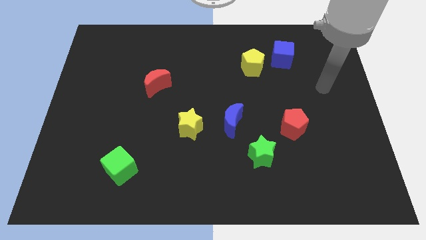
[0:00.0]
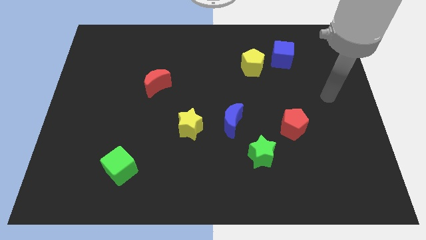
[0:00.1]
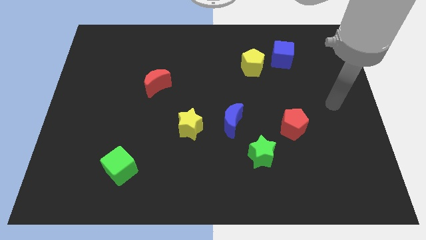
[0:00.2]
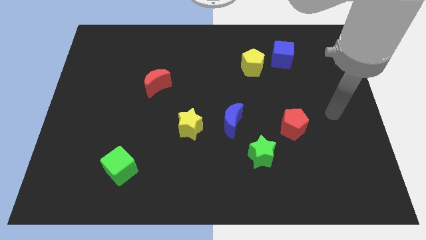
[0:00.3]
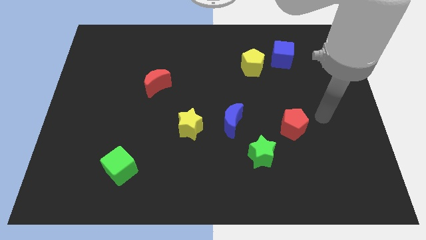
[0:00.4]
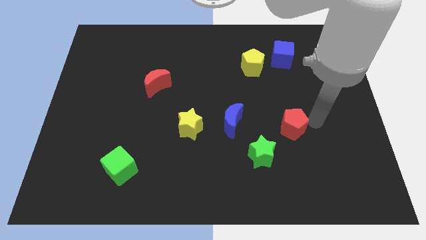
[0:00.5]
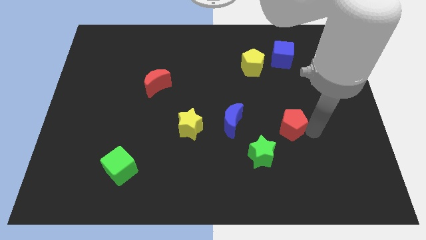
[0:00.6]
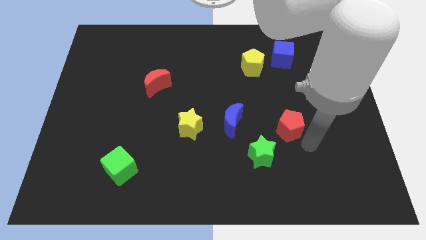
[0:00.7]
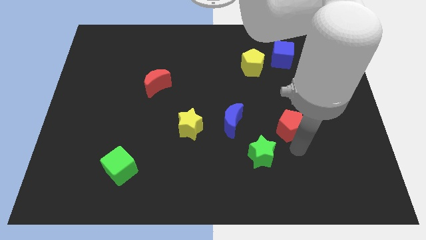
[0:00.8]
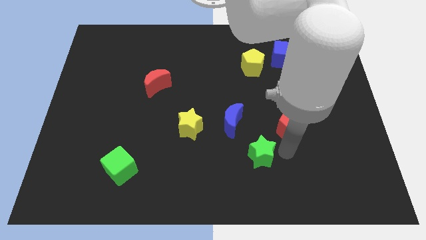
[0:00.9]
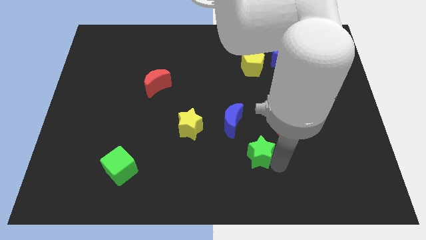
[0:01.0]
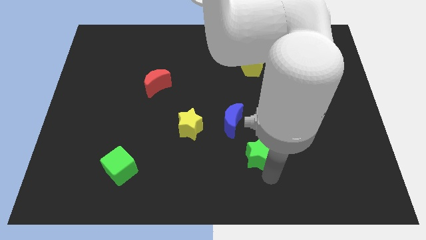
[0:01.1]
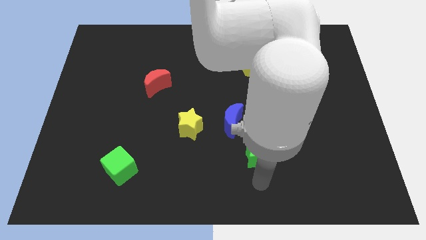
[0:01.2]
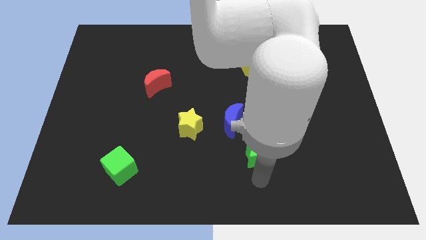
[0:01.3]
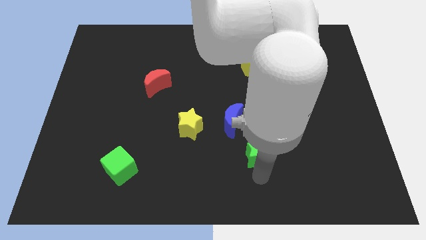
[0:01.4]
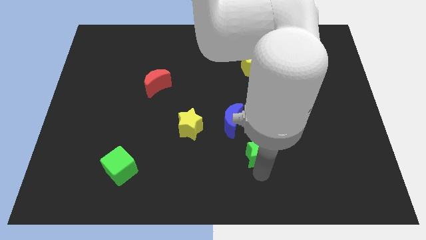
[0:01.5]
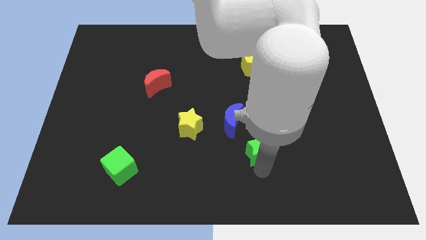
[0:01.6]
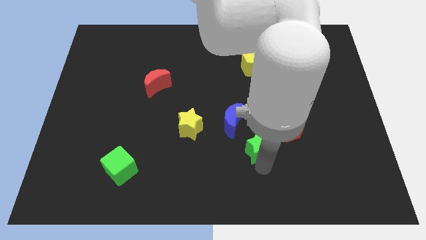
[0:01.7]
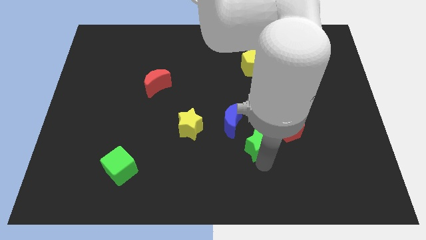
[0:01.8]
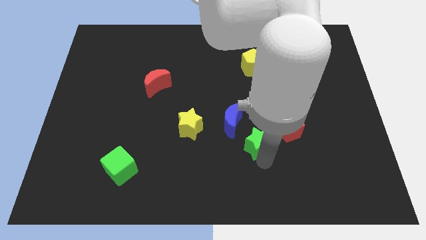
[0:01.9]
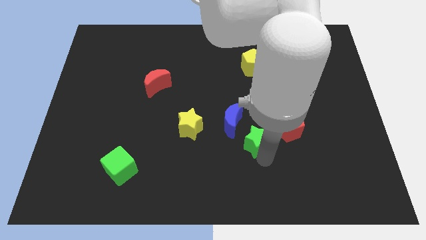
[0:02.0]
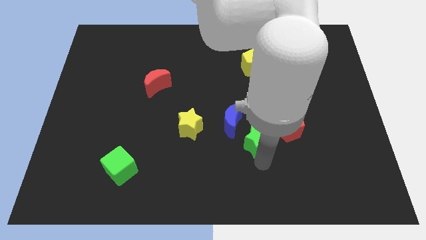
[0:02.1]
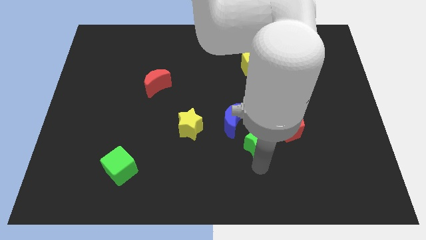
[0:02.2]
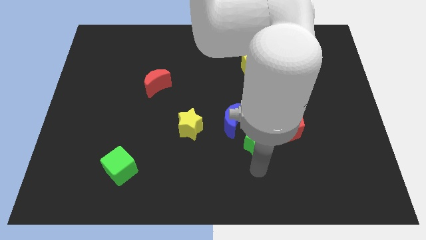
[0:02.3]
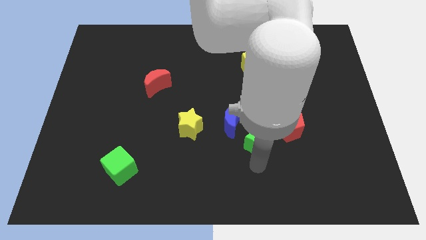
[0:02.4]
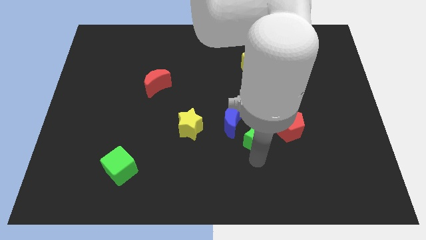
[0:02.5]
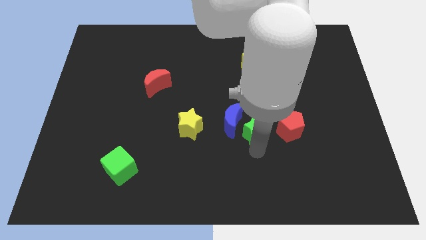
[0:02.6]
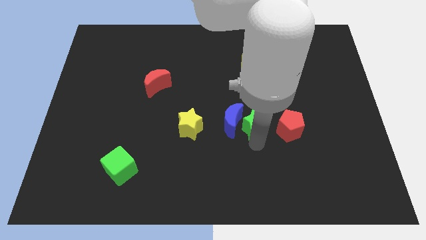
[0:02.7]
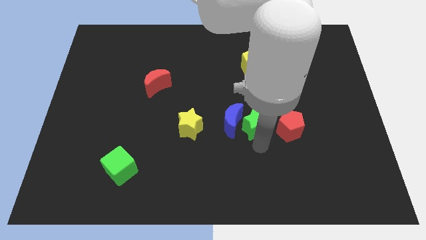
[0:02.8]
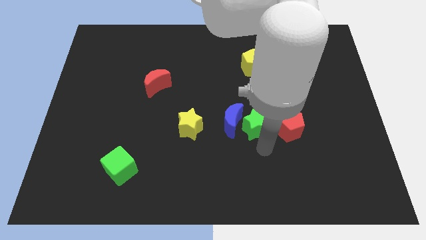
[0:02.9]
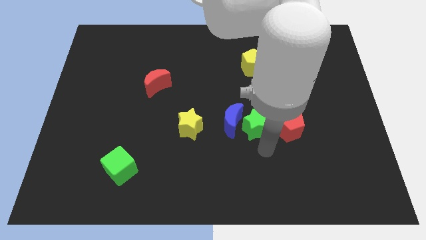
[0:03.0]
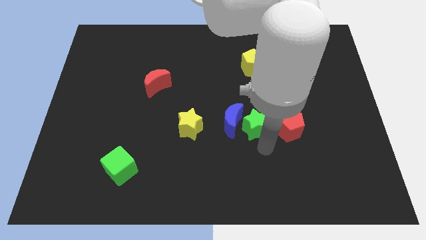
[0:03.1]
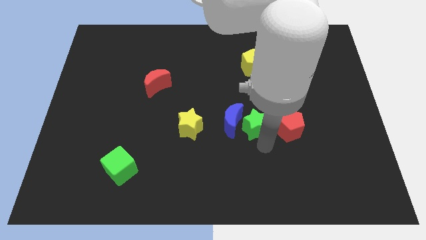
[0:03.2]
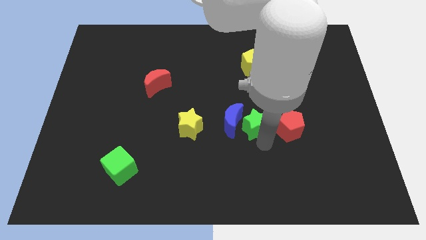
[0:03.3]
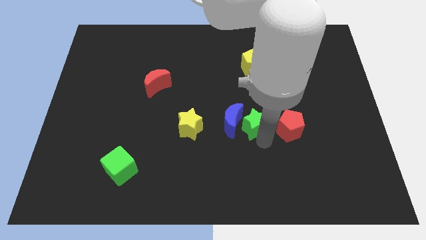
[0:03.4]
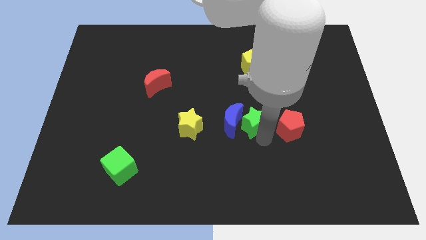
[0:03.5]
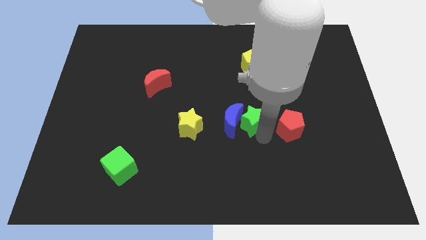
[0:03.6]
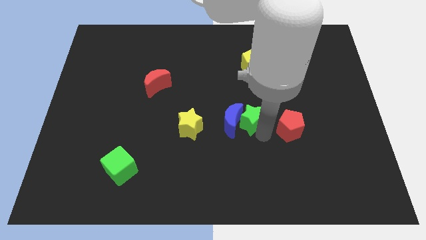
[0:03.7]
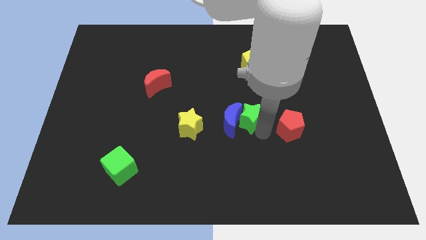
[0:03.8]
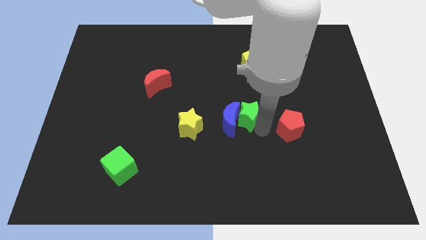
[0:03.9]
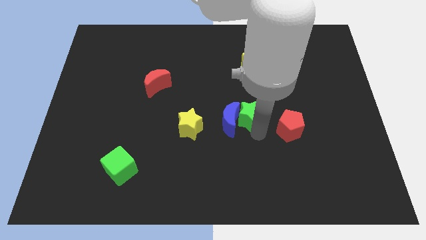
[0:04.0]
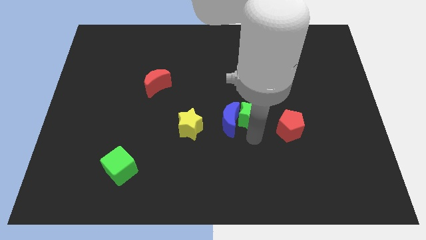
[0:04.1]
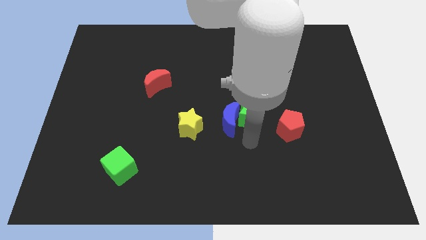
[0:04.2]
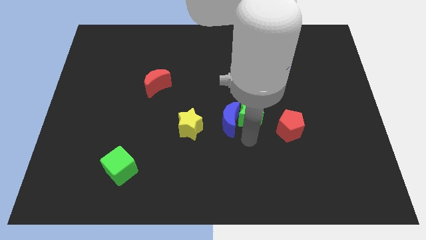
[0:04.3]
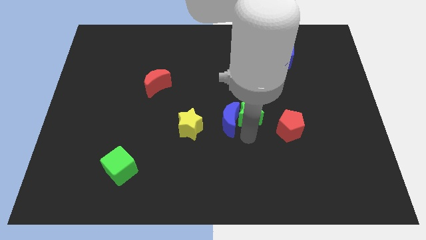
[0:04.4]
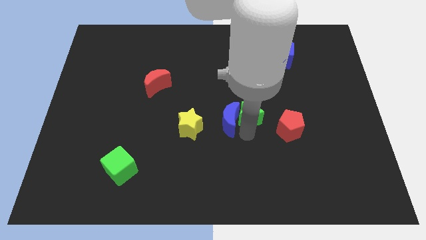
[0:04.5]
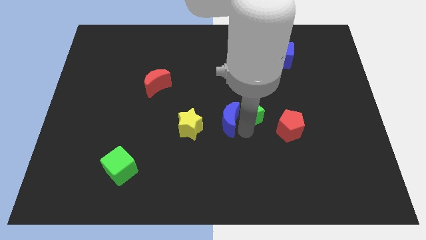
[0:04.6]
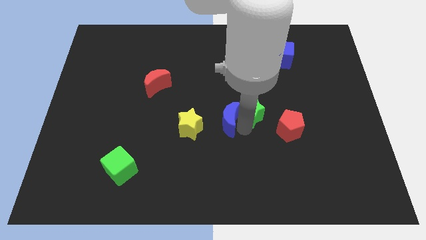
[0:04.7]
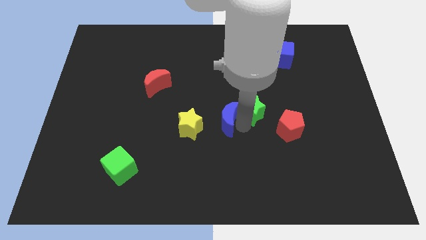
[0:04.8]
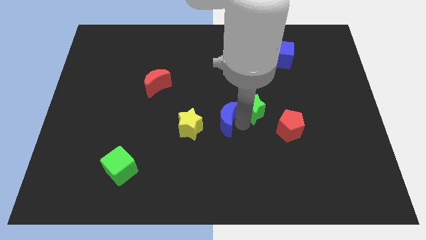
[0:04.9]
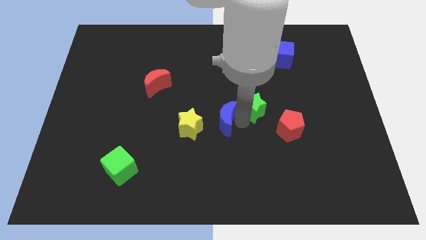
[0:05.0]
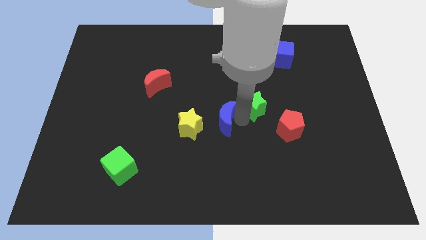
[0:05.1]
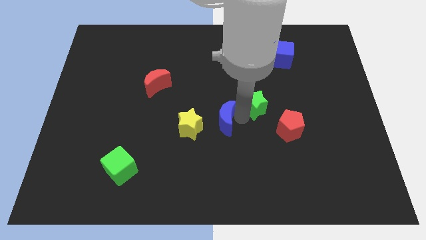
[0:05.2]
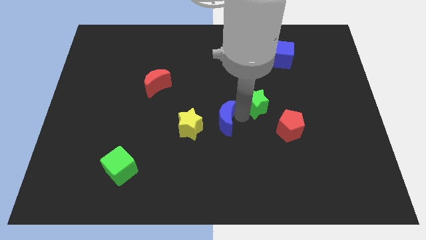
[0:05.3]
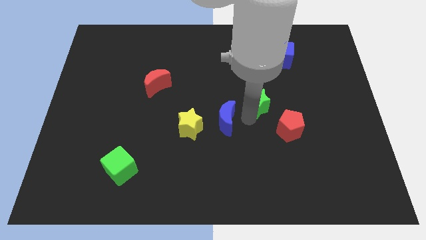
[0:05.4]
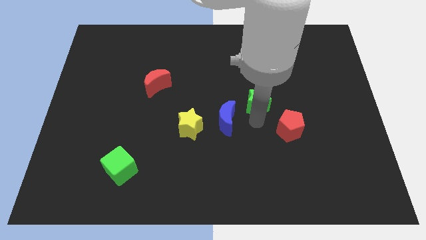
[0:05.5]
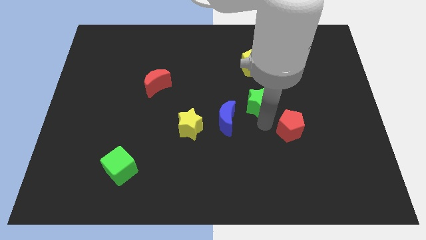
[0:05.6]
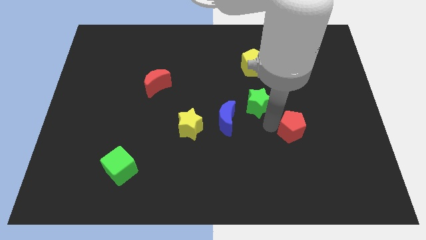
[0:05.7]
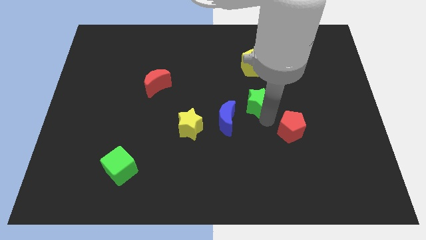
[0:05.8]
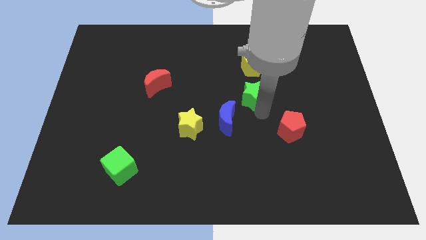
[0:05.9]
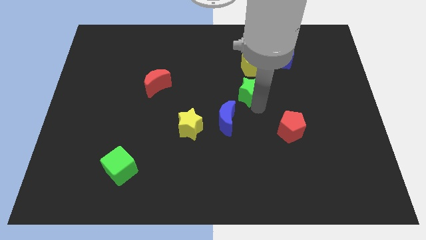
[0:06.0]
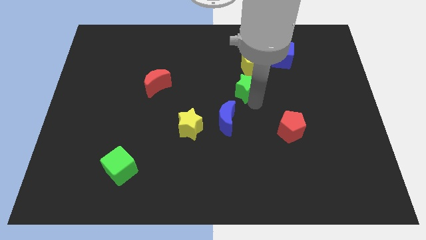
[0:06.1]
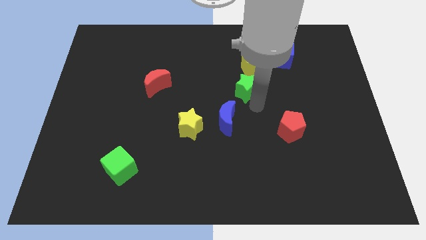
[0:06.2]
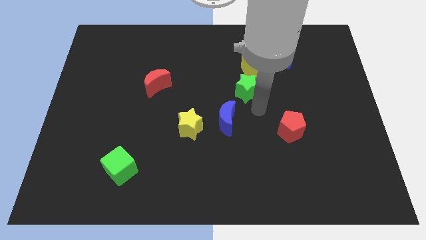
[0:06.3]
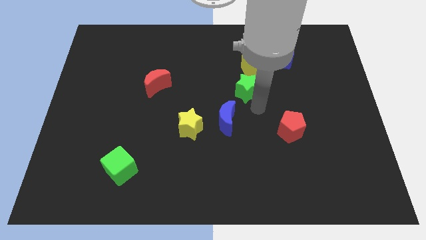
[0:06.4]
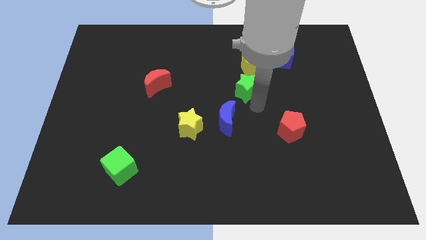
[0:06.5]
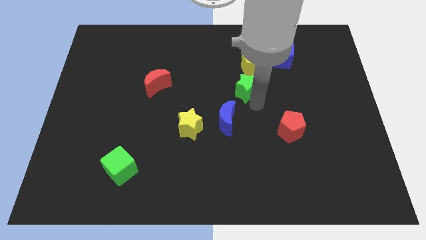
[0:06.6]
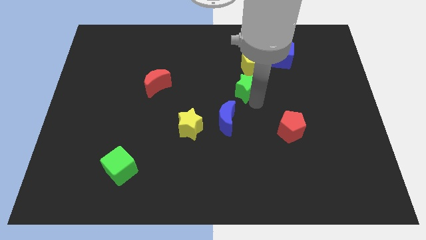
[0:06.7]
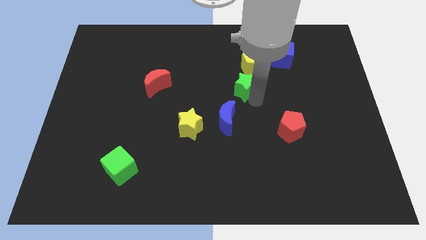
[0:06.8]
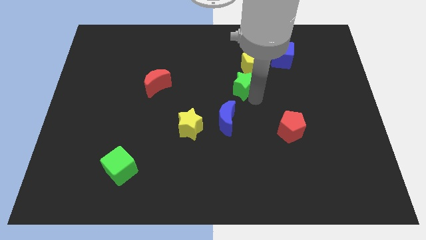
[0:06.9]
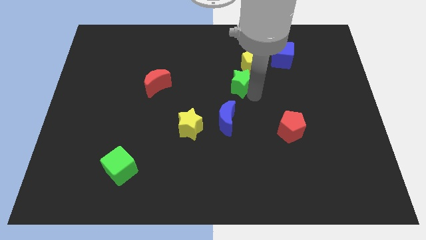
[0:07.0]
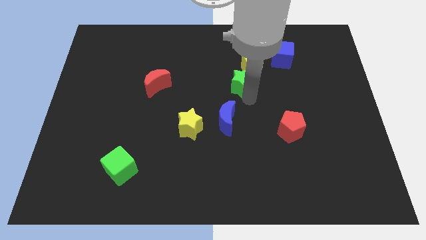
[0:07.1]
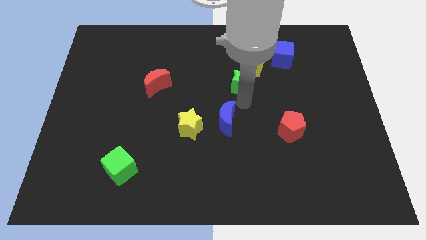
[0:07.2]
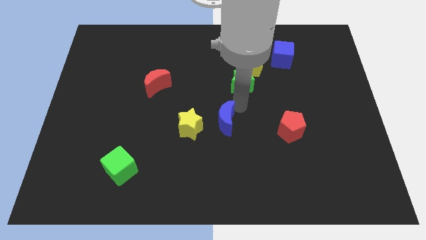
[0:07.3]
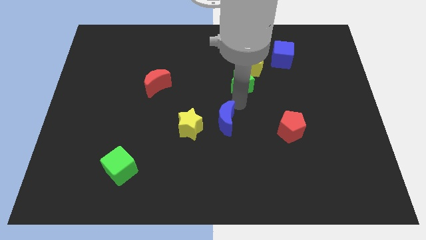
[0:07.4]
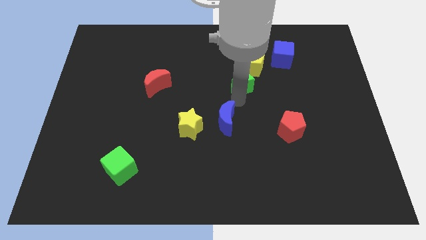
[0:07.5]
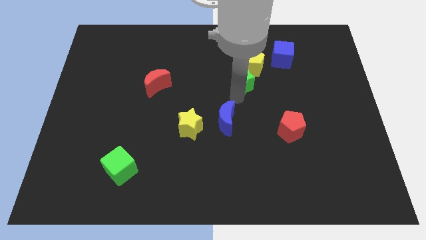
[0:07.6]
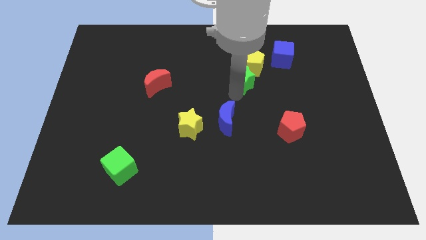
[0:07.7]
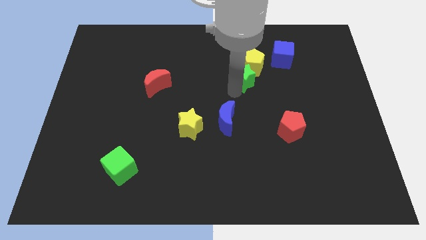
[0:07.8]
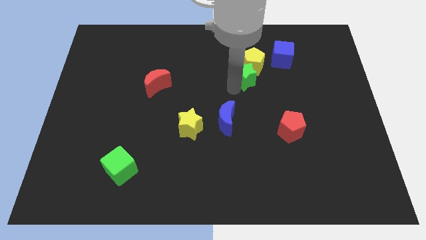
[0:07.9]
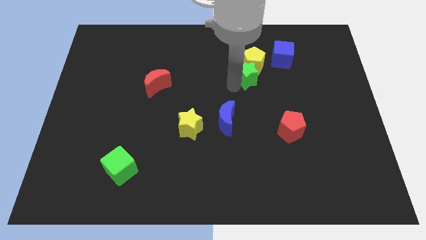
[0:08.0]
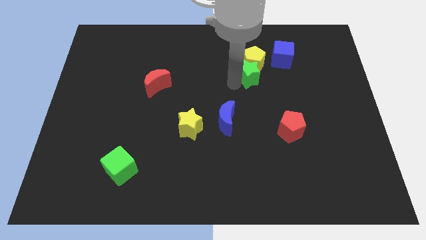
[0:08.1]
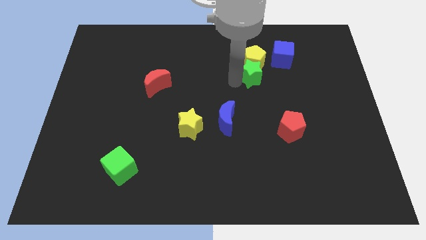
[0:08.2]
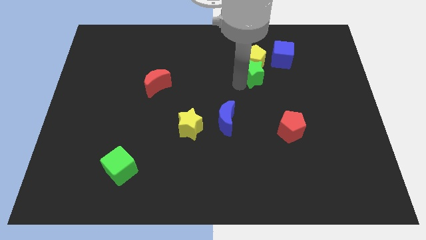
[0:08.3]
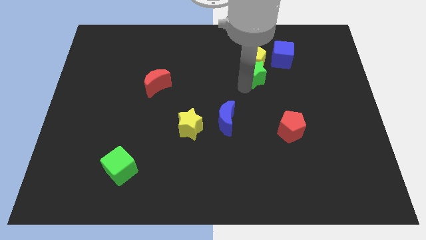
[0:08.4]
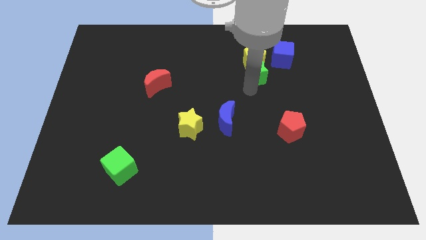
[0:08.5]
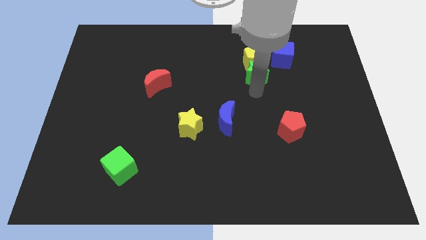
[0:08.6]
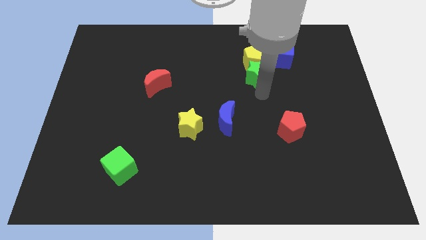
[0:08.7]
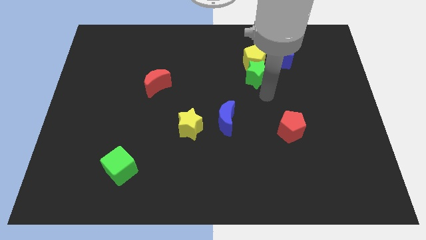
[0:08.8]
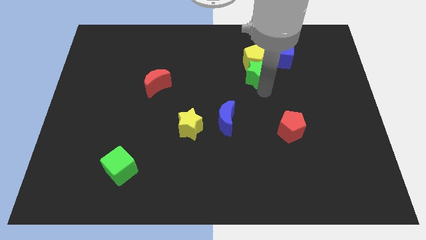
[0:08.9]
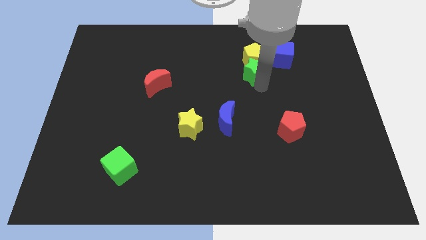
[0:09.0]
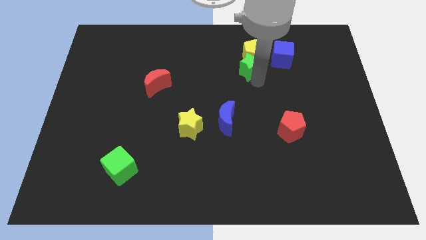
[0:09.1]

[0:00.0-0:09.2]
slide the green star to the left of the blue cube
